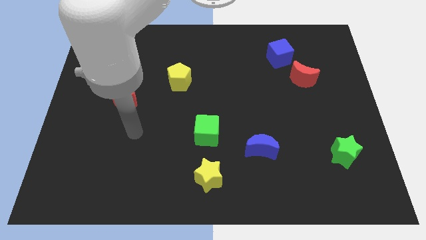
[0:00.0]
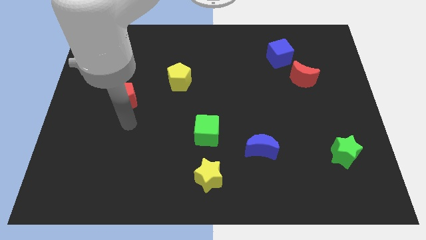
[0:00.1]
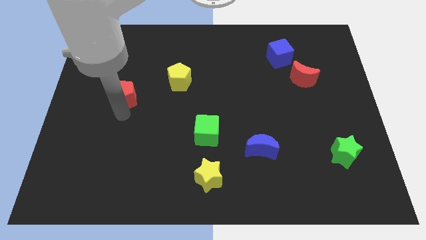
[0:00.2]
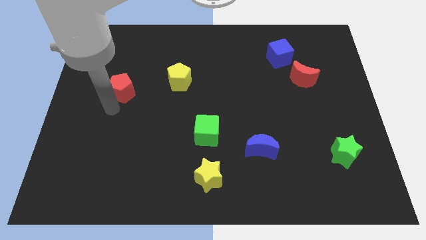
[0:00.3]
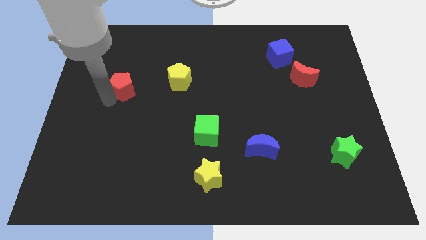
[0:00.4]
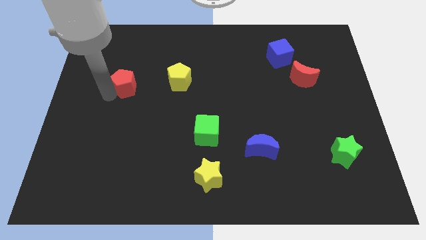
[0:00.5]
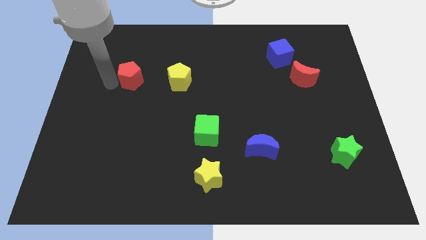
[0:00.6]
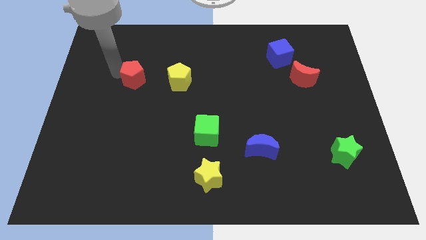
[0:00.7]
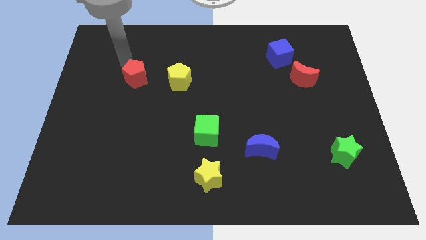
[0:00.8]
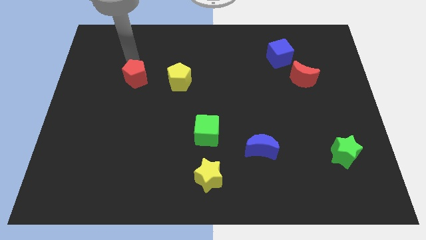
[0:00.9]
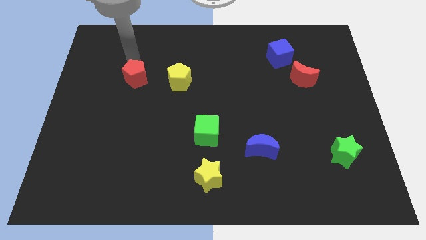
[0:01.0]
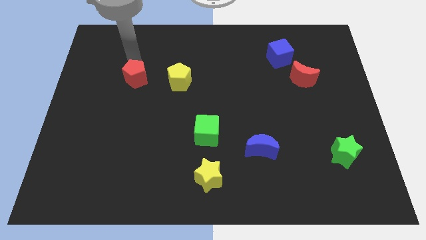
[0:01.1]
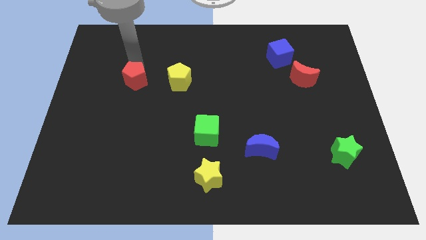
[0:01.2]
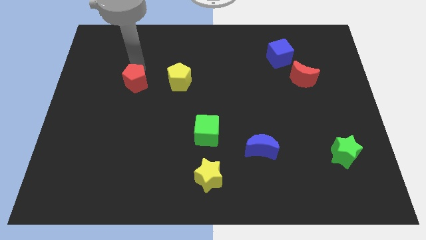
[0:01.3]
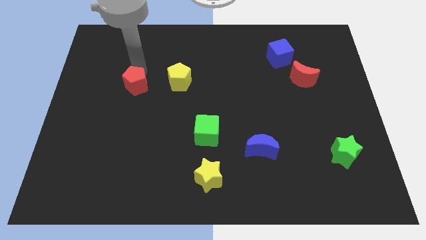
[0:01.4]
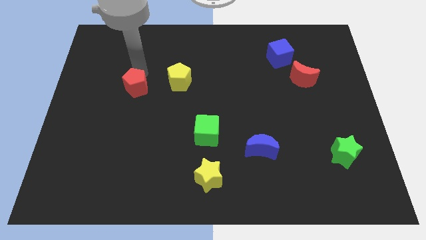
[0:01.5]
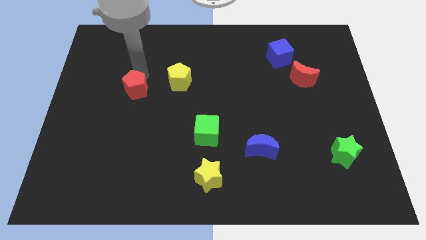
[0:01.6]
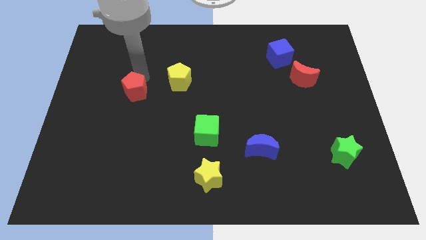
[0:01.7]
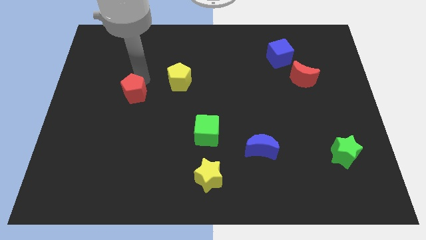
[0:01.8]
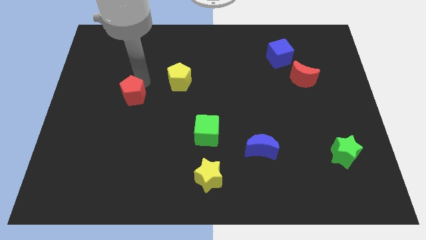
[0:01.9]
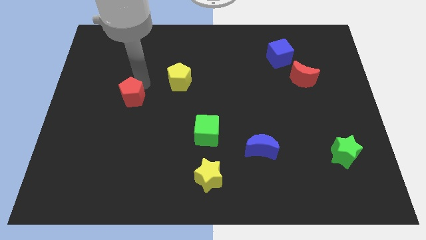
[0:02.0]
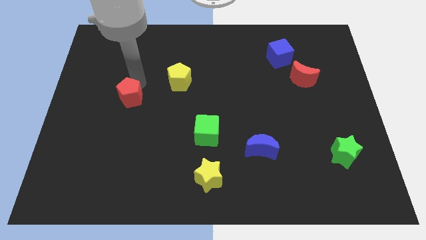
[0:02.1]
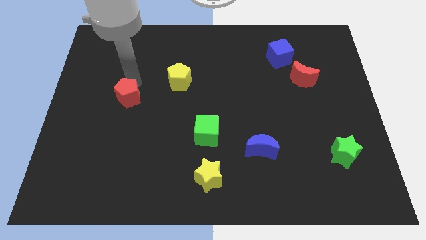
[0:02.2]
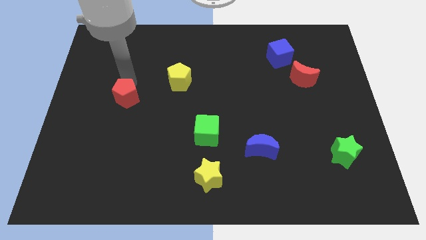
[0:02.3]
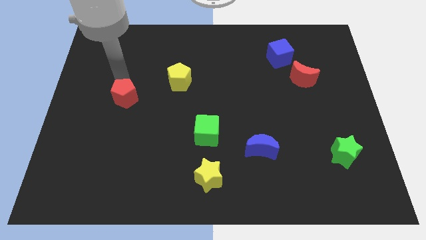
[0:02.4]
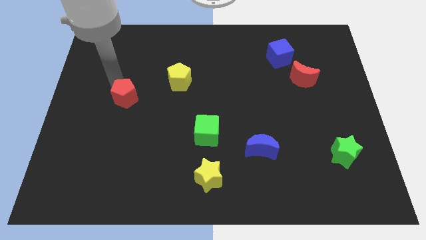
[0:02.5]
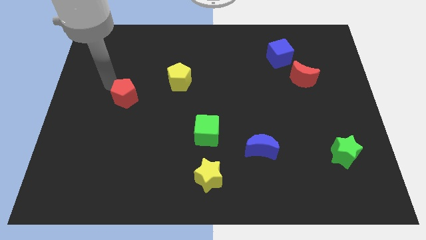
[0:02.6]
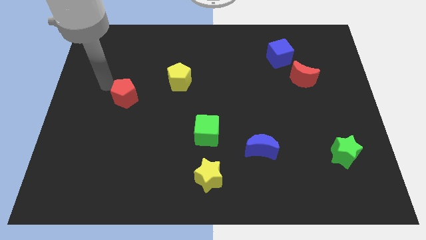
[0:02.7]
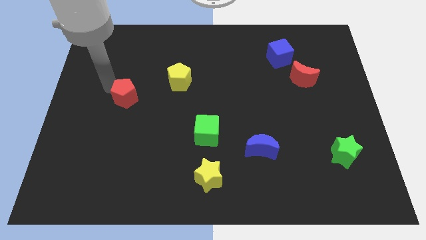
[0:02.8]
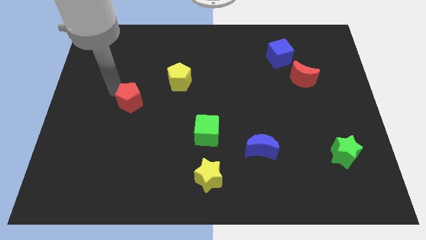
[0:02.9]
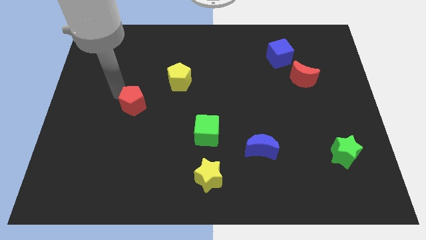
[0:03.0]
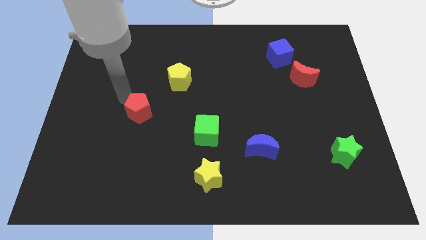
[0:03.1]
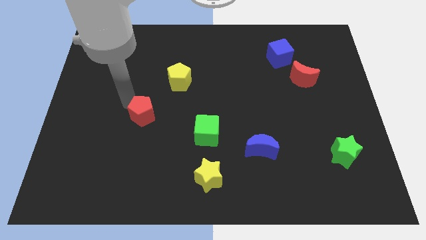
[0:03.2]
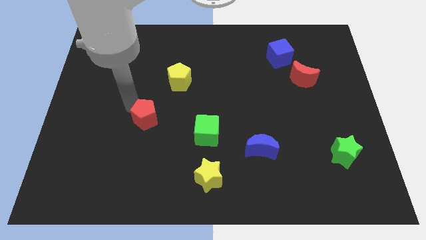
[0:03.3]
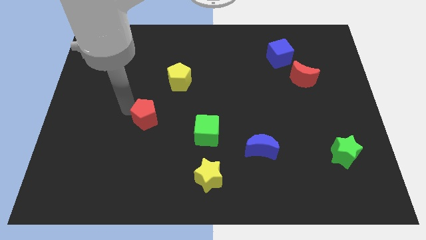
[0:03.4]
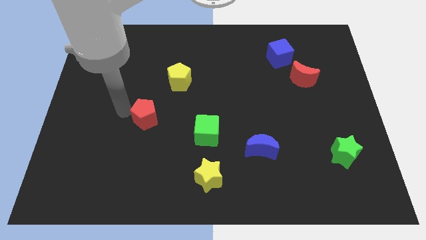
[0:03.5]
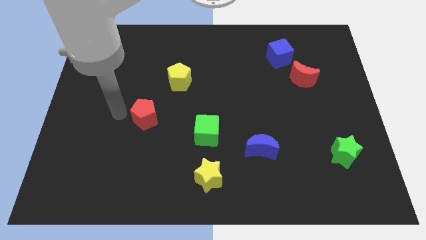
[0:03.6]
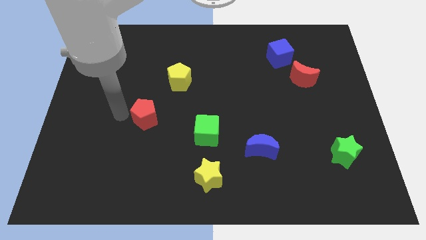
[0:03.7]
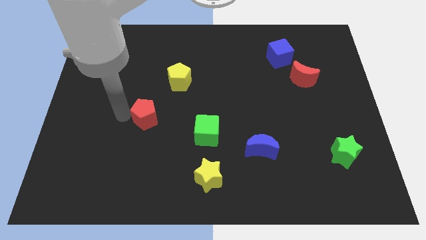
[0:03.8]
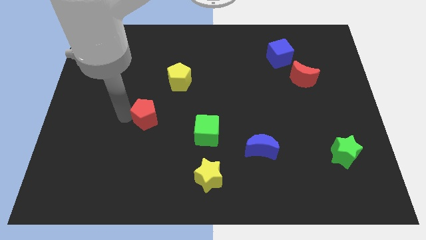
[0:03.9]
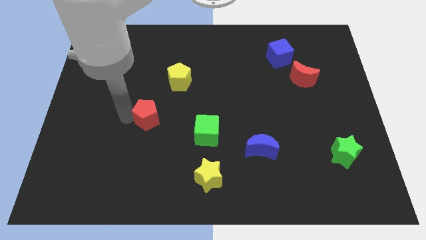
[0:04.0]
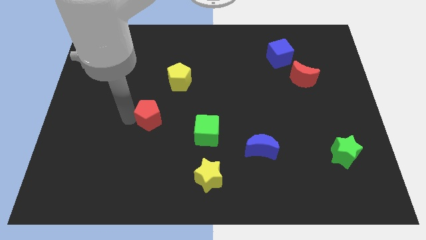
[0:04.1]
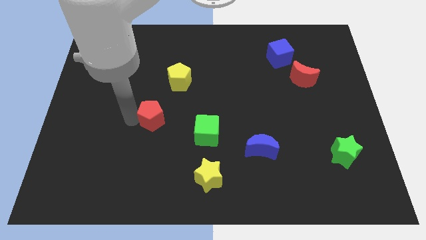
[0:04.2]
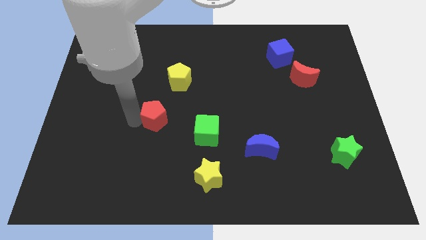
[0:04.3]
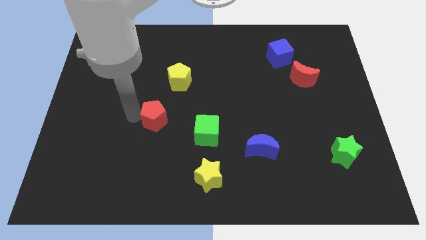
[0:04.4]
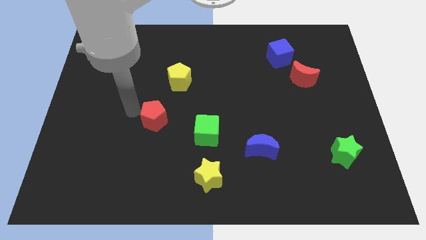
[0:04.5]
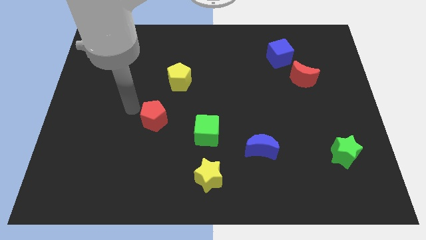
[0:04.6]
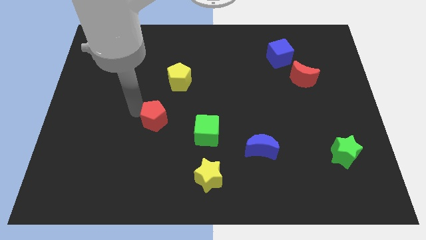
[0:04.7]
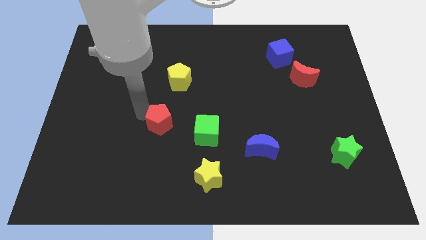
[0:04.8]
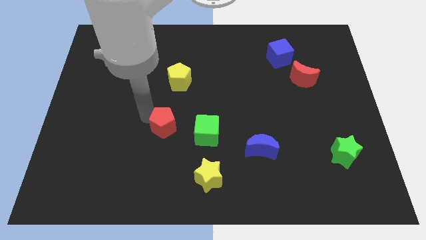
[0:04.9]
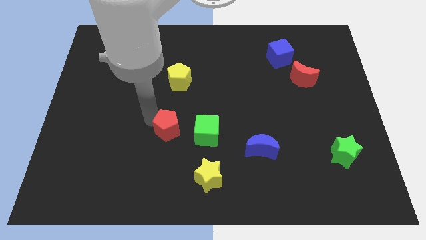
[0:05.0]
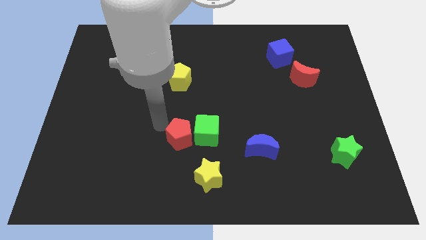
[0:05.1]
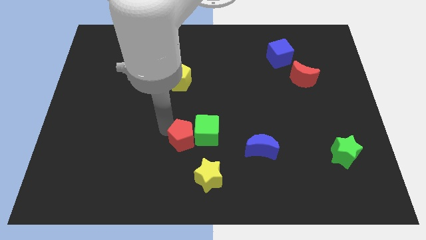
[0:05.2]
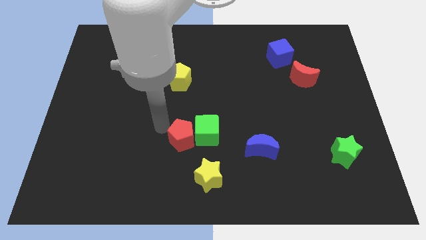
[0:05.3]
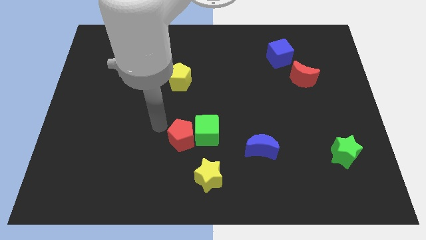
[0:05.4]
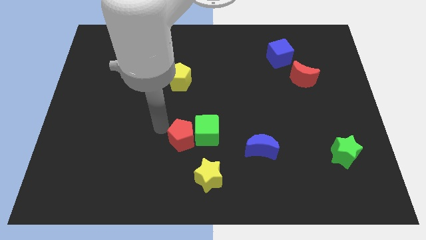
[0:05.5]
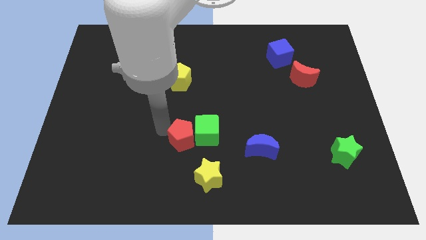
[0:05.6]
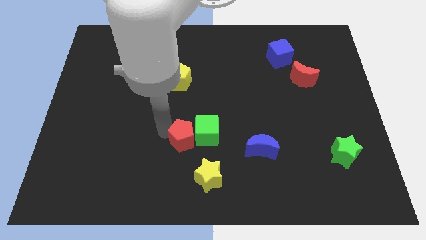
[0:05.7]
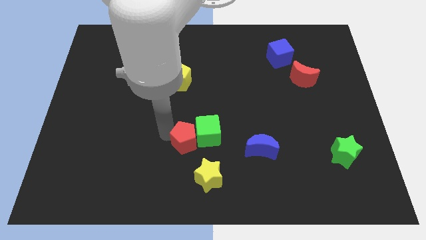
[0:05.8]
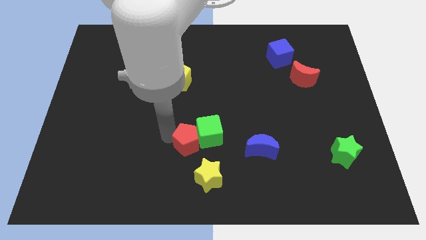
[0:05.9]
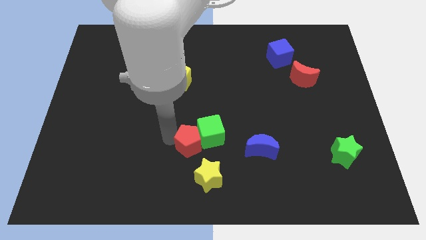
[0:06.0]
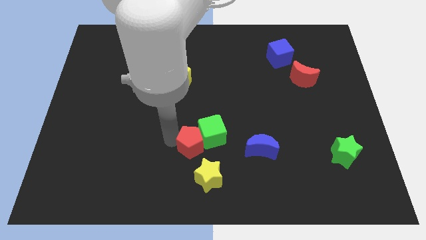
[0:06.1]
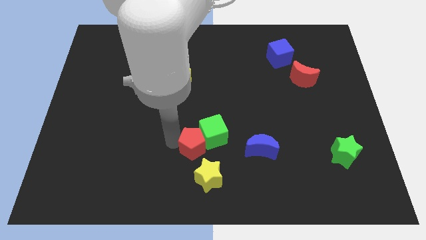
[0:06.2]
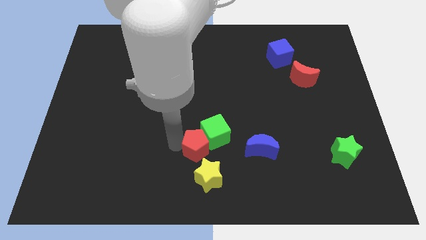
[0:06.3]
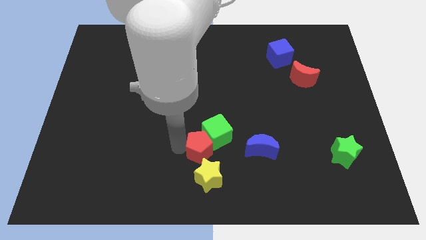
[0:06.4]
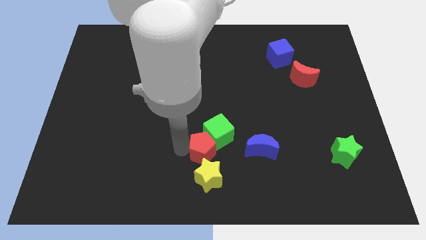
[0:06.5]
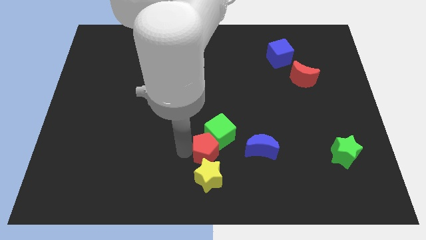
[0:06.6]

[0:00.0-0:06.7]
put the red pentagon to the top right of the yellow star

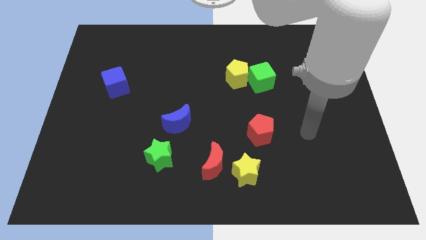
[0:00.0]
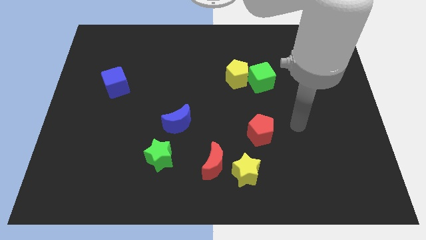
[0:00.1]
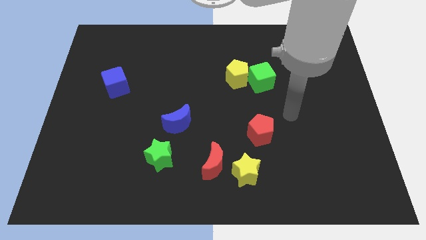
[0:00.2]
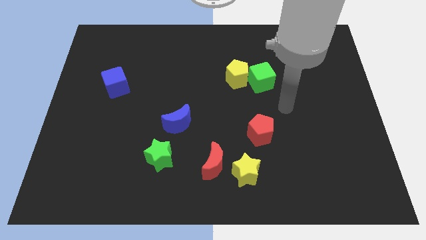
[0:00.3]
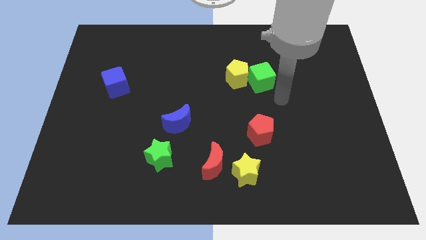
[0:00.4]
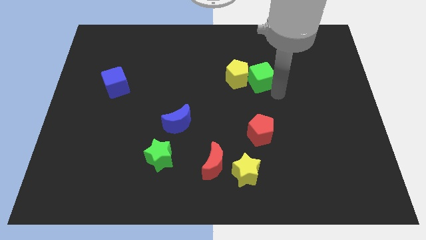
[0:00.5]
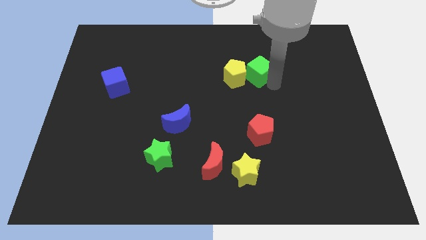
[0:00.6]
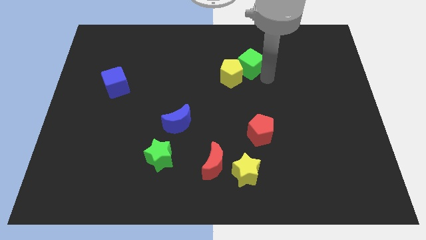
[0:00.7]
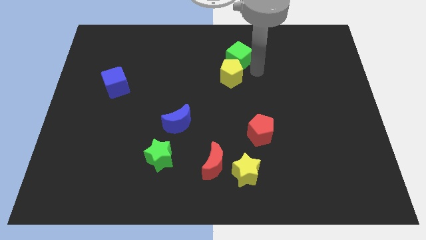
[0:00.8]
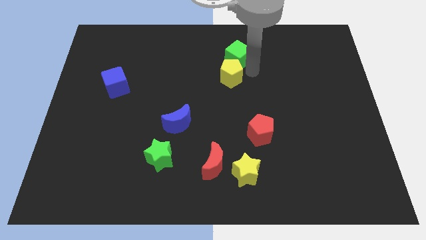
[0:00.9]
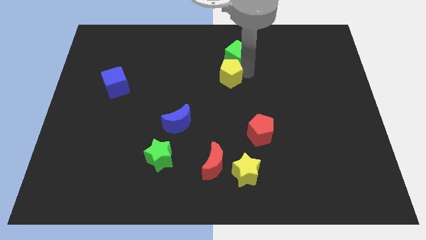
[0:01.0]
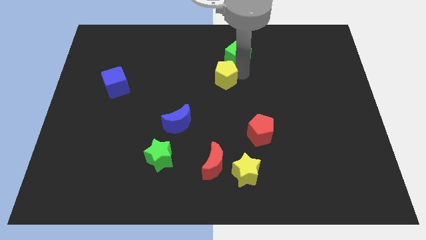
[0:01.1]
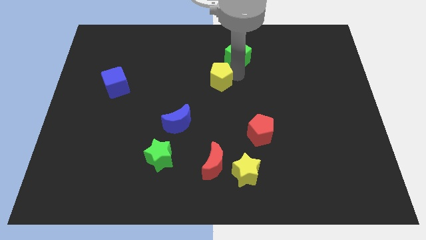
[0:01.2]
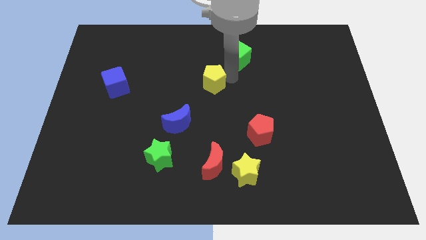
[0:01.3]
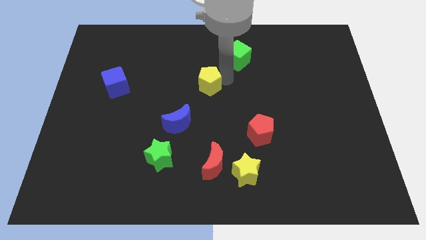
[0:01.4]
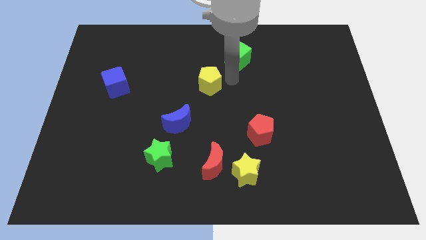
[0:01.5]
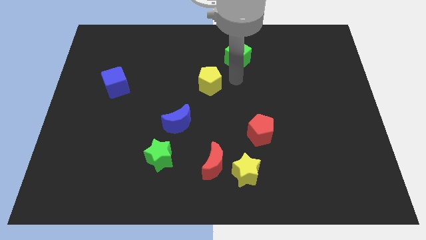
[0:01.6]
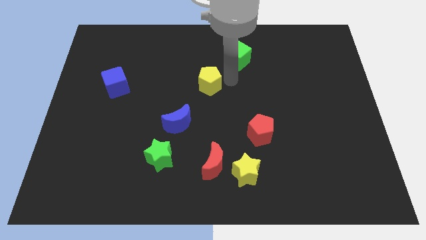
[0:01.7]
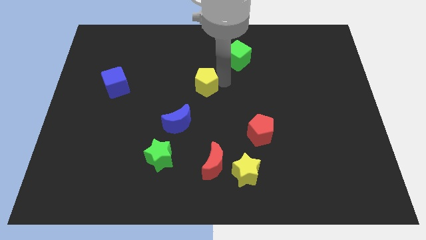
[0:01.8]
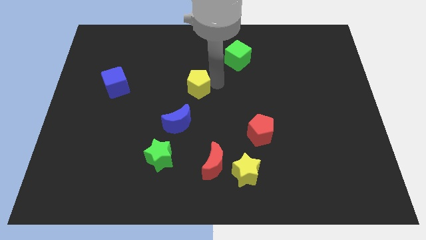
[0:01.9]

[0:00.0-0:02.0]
move the yellow pentagon to the top of the blue moon
